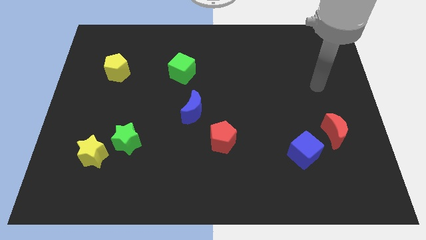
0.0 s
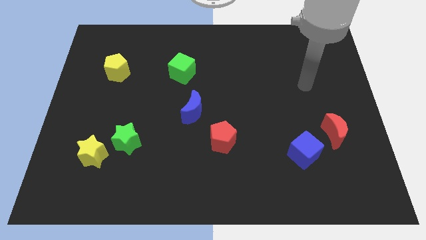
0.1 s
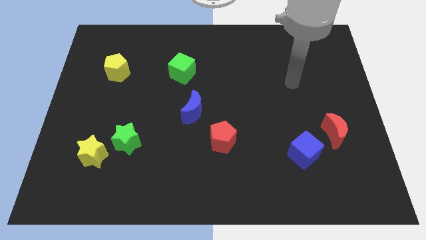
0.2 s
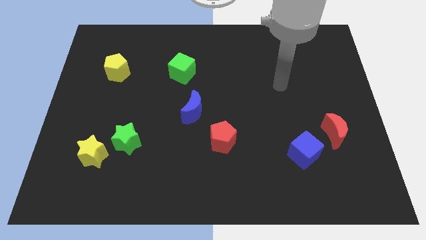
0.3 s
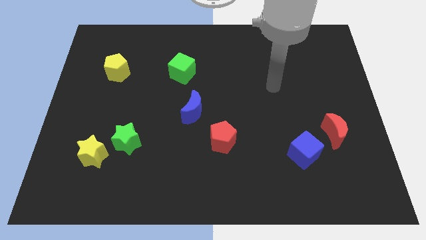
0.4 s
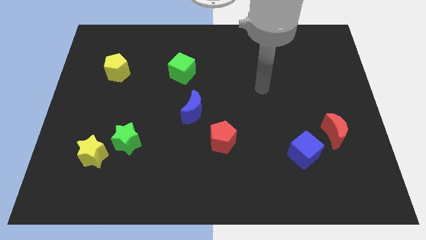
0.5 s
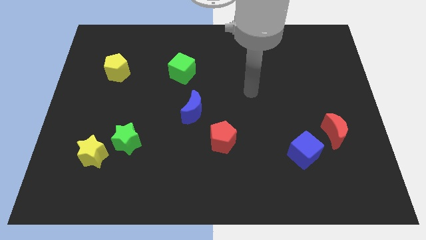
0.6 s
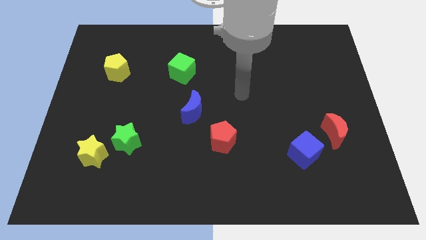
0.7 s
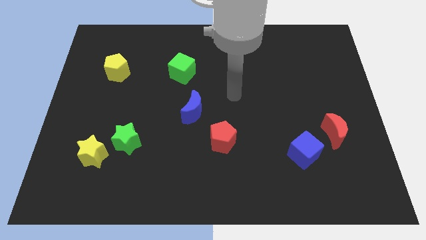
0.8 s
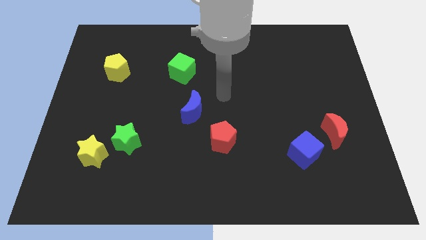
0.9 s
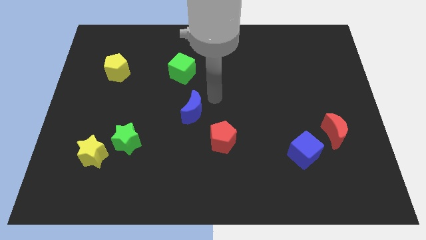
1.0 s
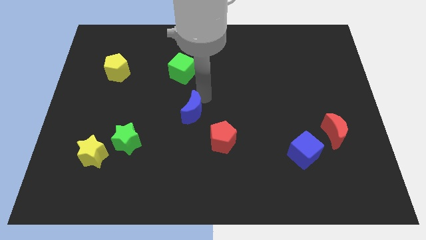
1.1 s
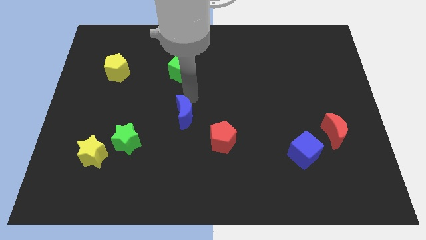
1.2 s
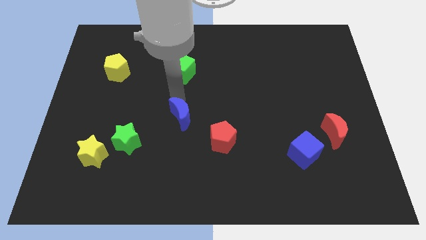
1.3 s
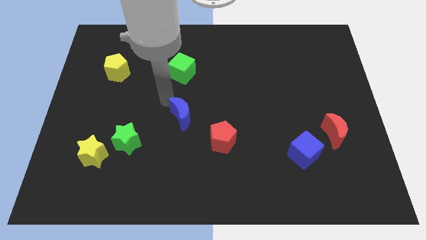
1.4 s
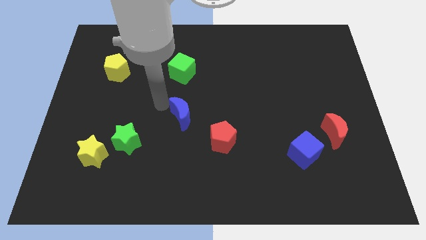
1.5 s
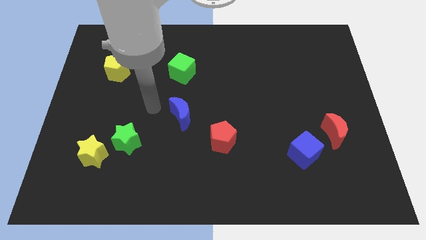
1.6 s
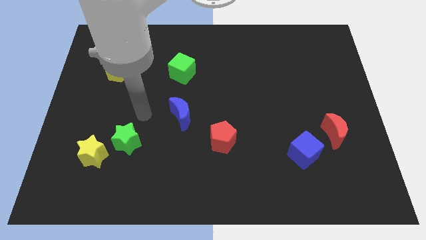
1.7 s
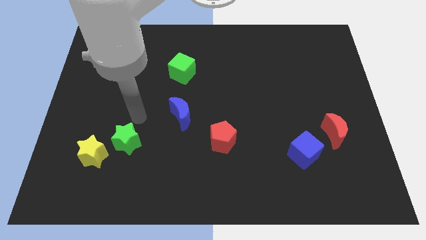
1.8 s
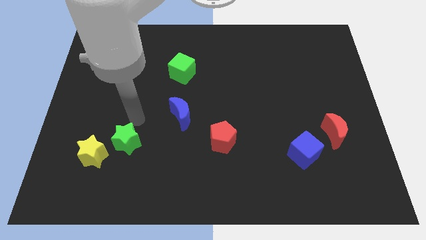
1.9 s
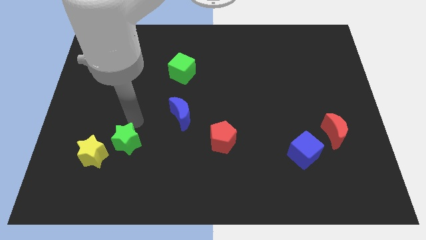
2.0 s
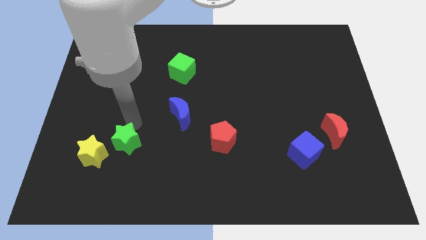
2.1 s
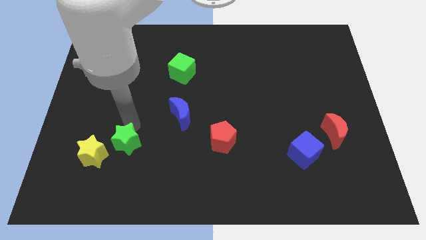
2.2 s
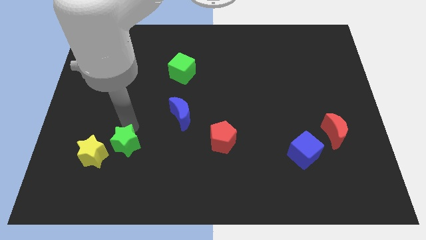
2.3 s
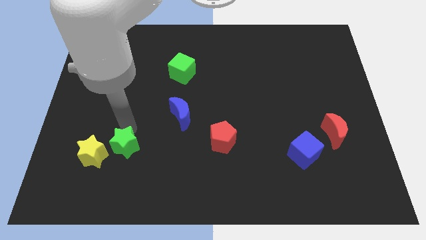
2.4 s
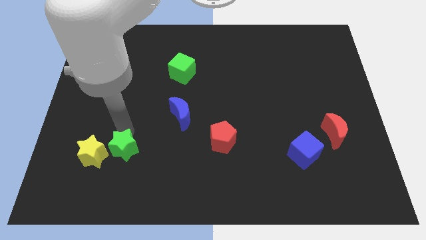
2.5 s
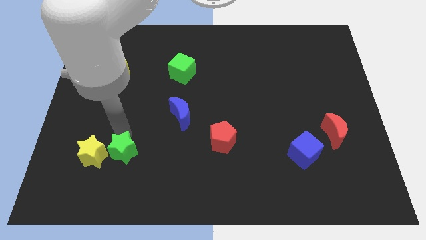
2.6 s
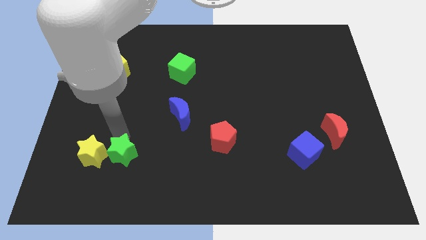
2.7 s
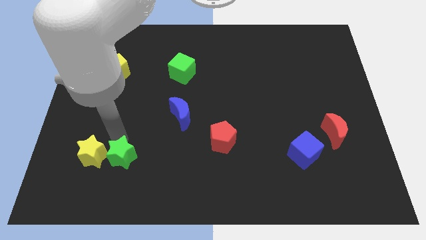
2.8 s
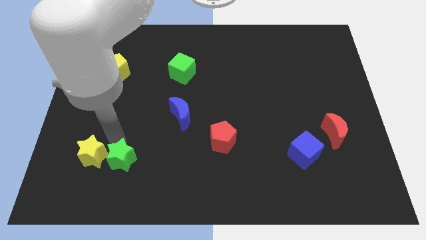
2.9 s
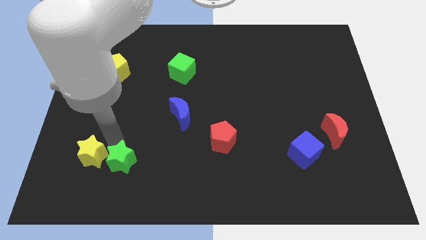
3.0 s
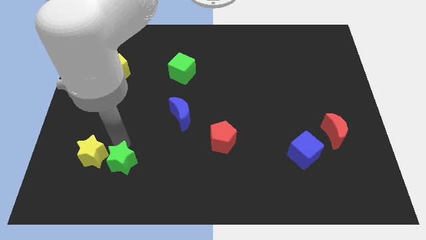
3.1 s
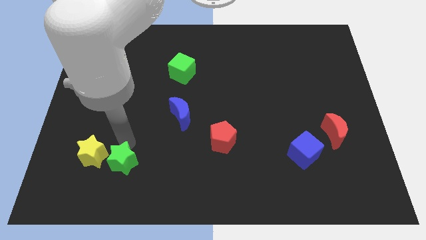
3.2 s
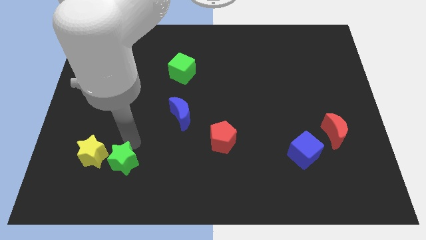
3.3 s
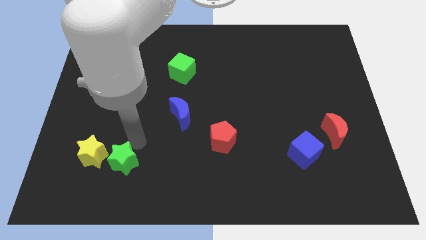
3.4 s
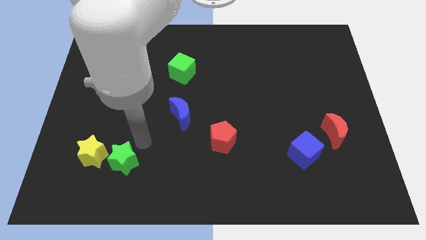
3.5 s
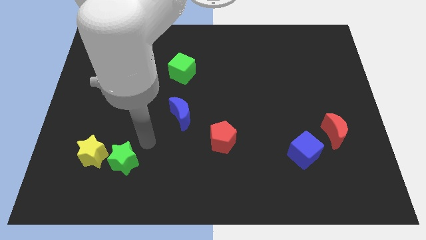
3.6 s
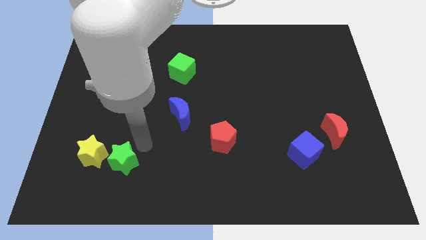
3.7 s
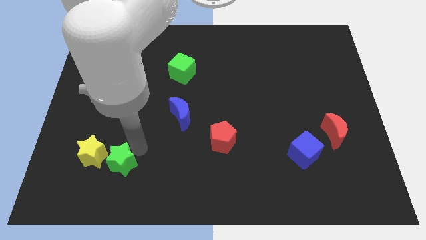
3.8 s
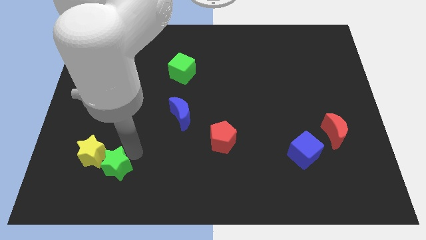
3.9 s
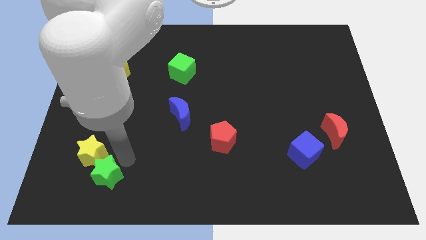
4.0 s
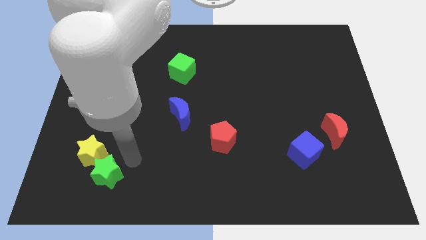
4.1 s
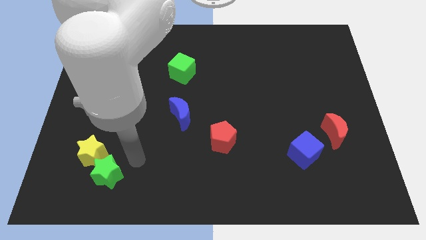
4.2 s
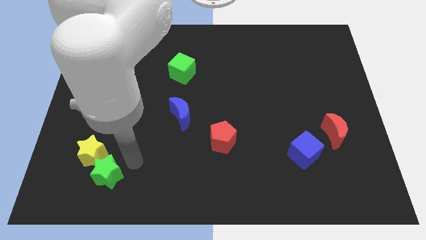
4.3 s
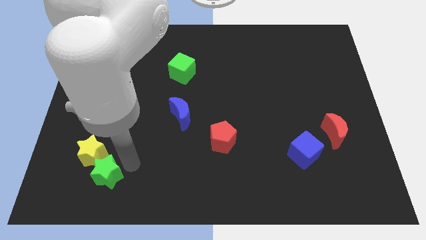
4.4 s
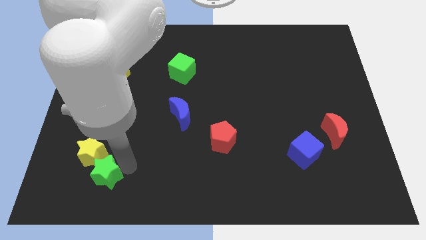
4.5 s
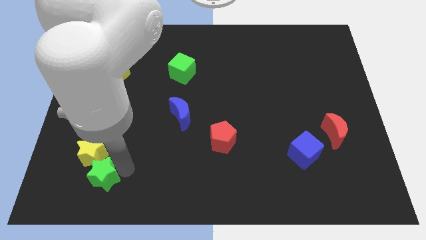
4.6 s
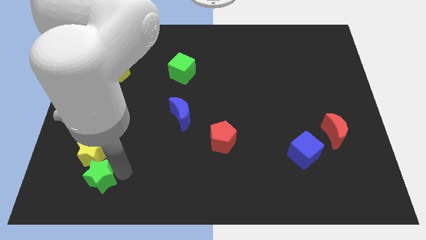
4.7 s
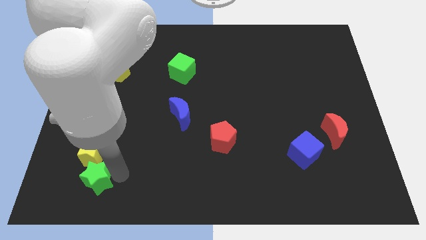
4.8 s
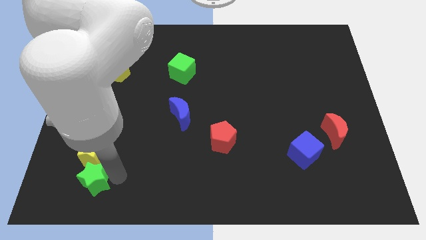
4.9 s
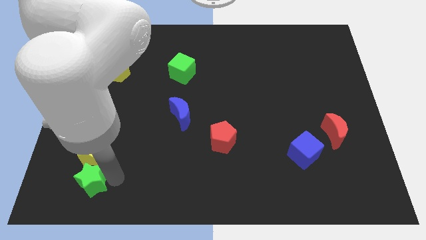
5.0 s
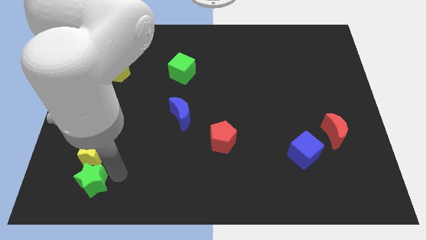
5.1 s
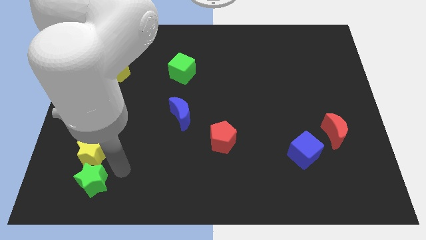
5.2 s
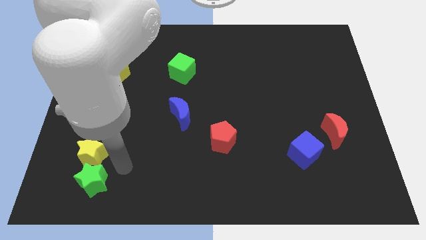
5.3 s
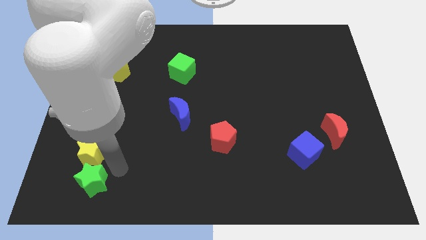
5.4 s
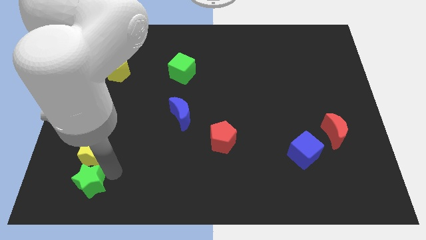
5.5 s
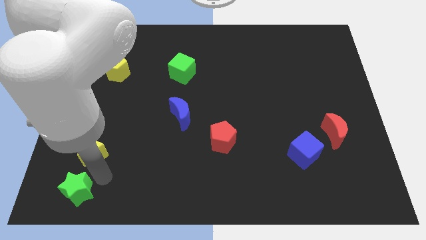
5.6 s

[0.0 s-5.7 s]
move the green star to the bottom left of the board
